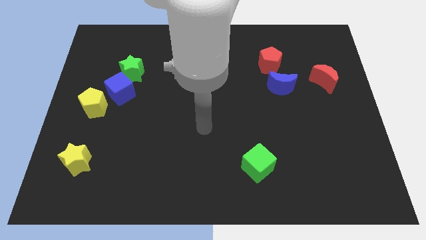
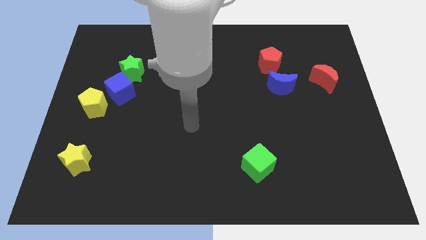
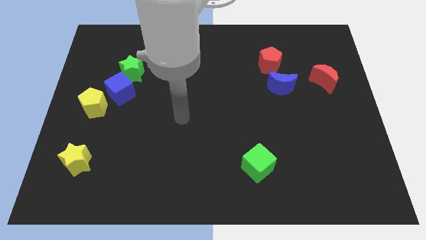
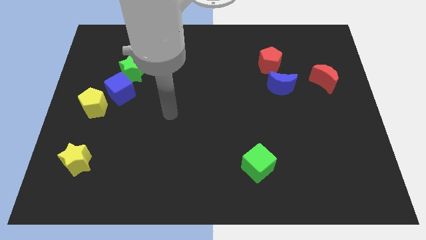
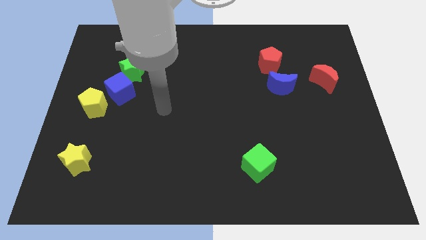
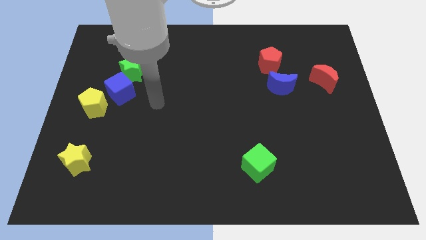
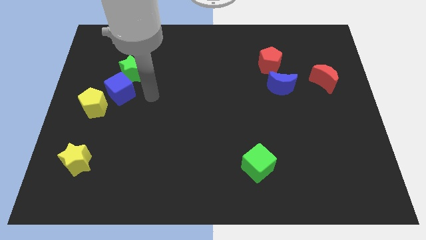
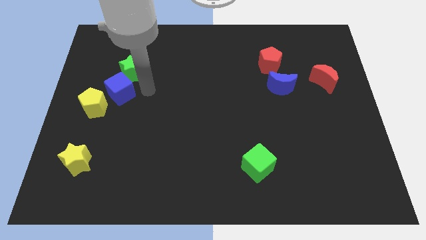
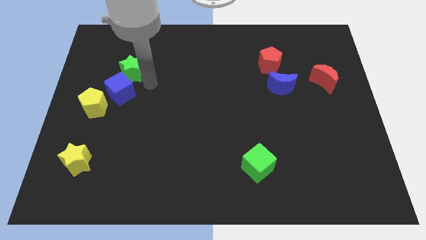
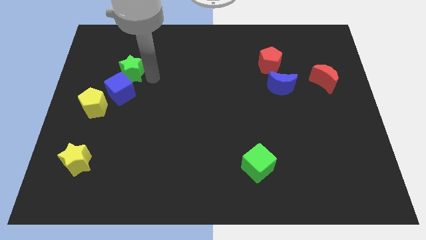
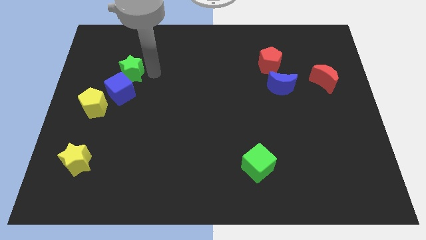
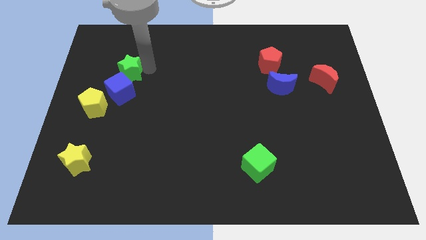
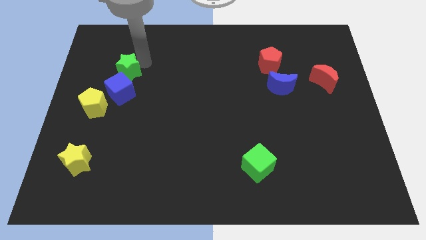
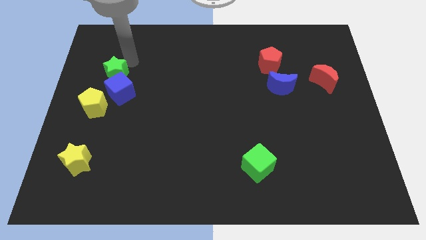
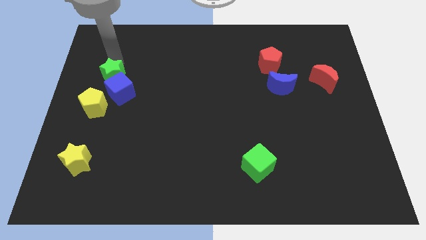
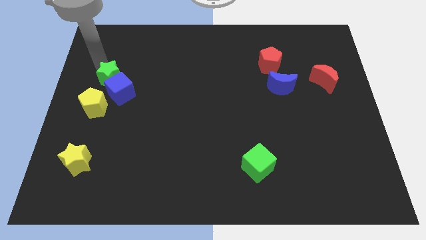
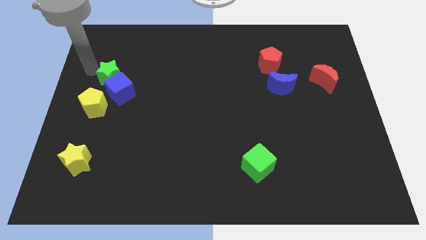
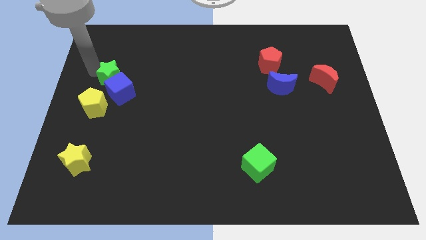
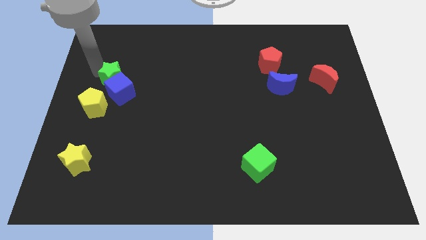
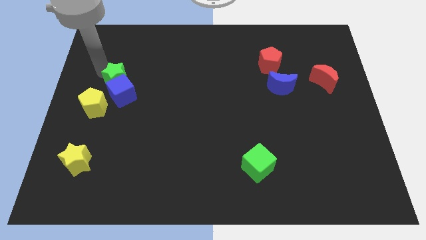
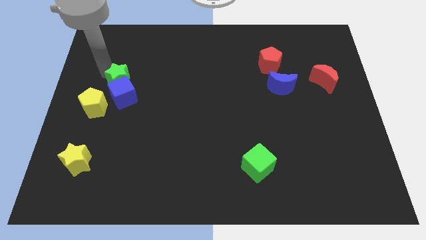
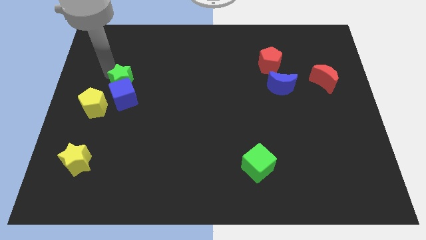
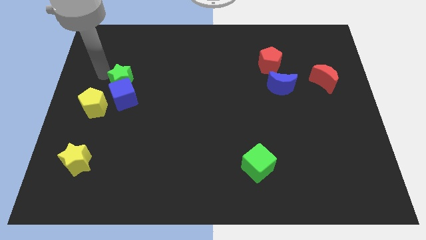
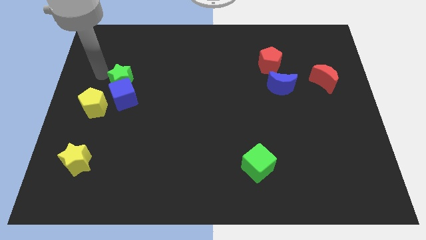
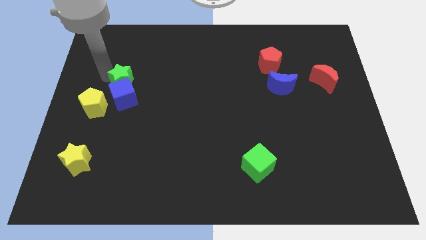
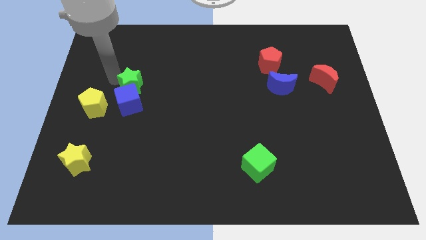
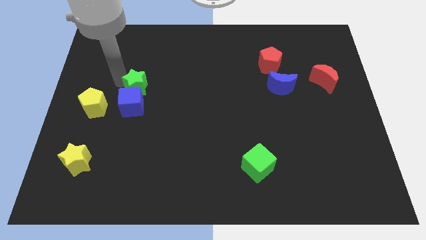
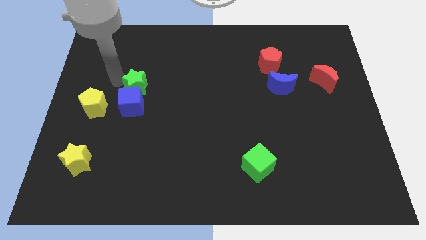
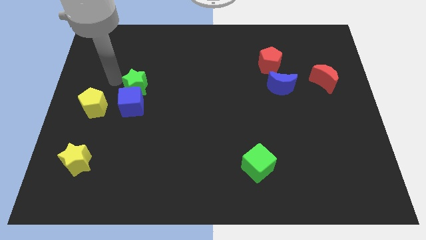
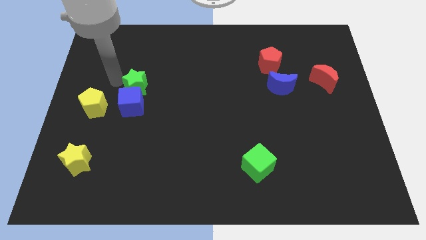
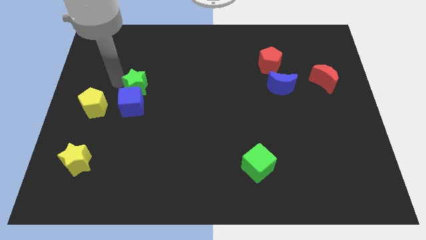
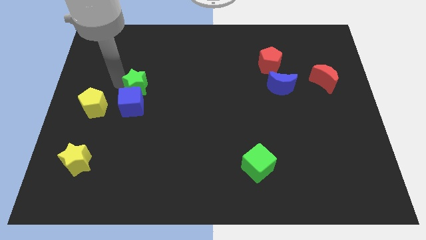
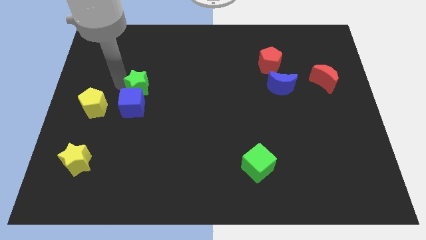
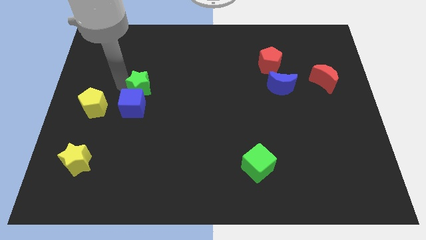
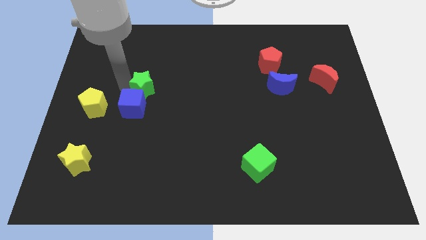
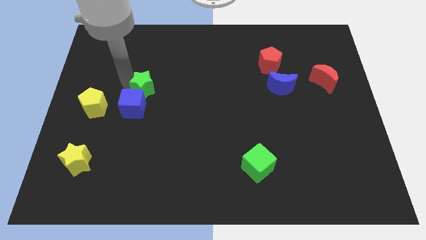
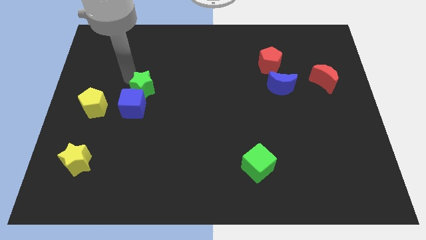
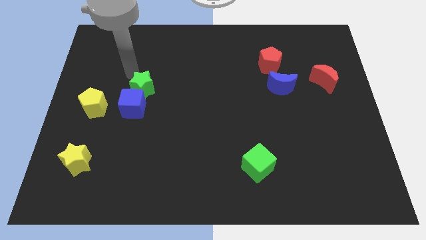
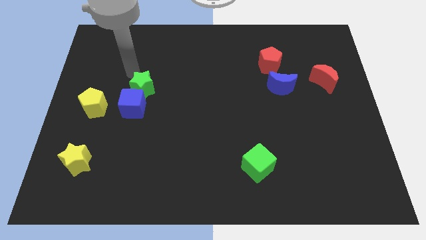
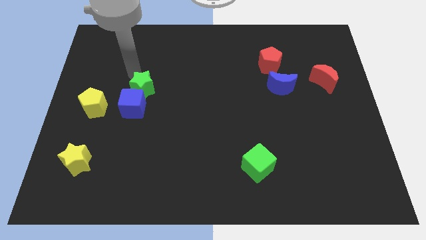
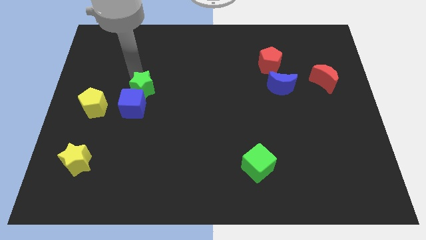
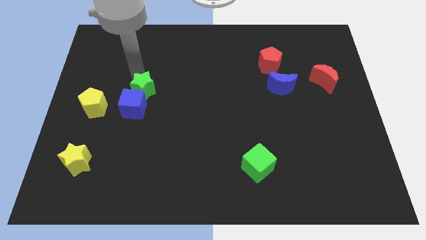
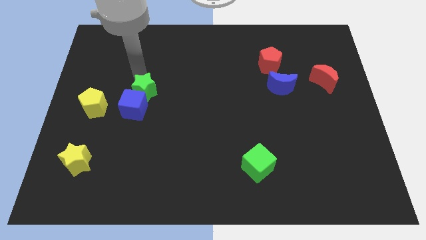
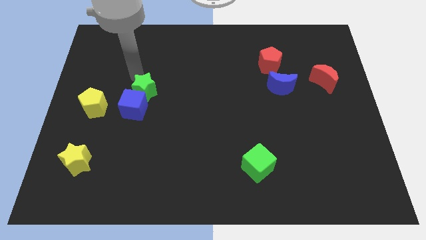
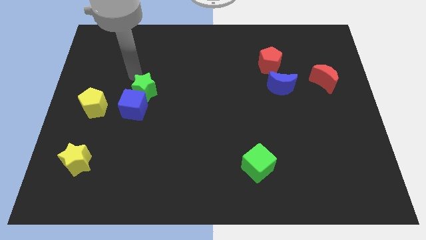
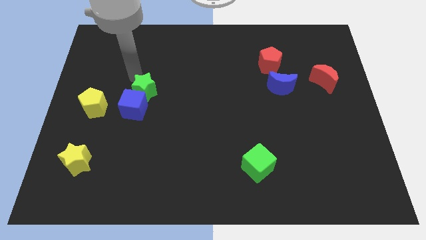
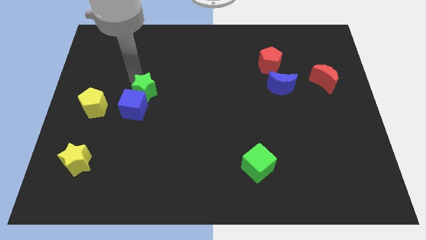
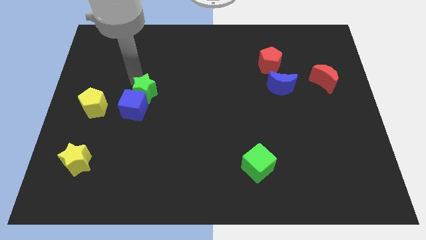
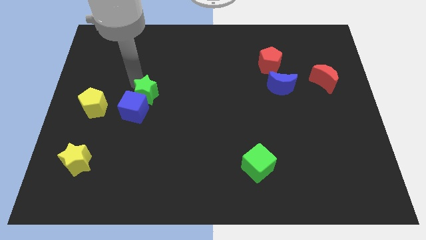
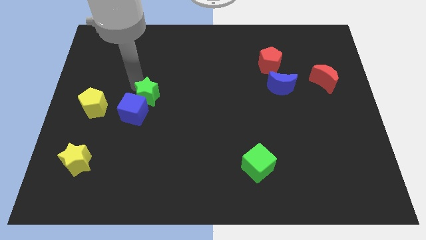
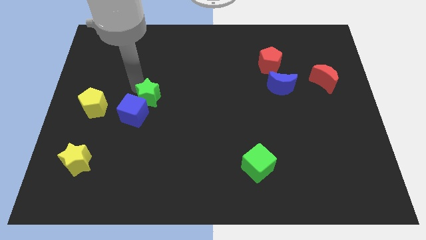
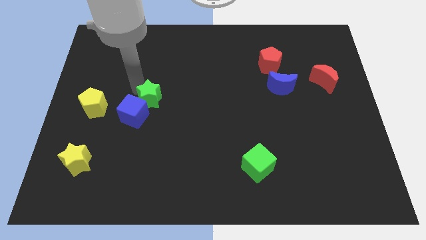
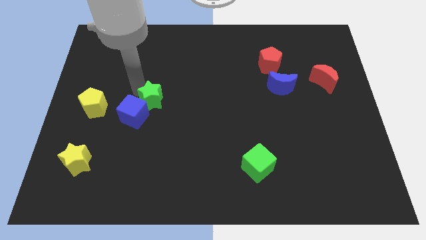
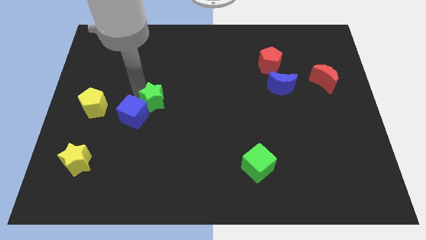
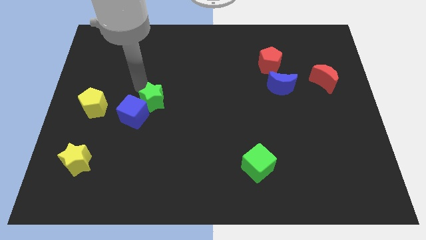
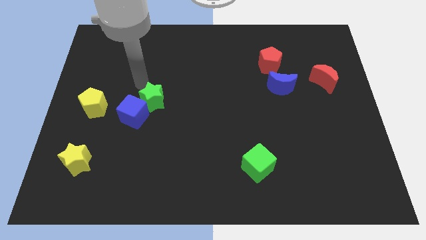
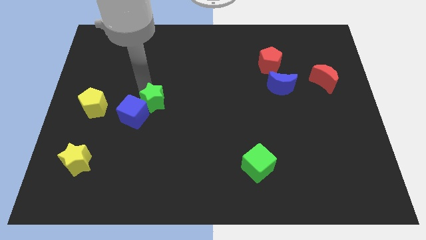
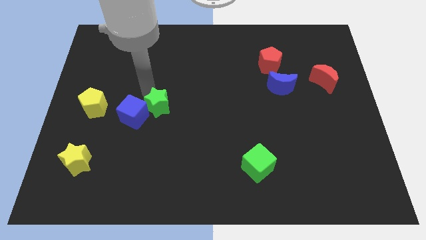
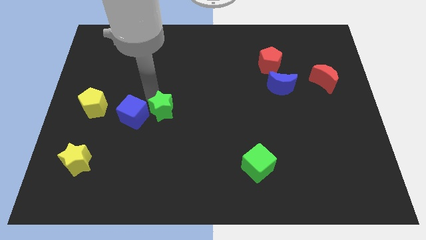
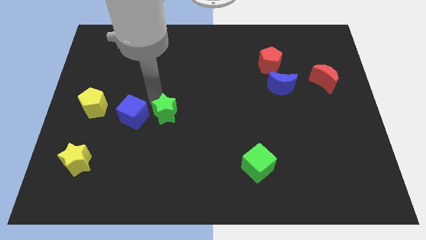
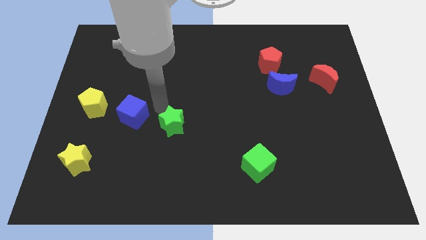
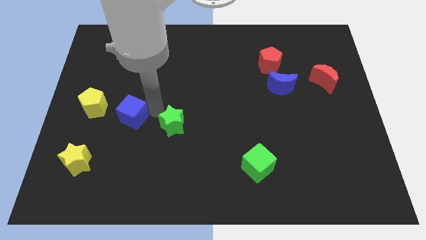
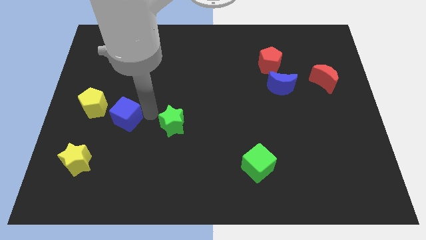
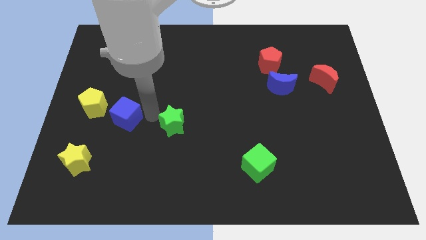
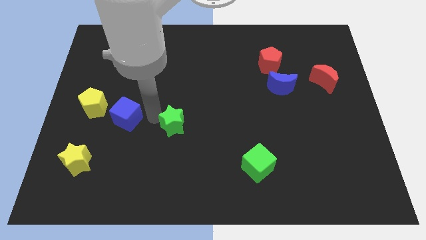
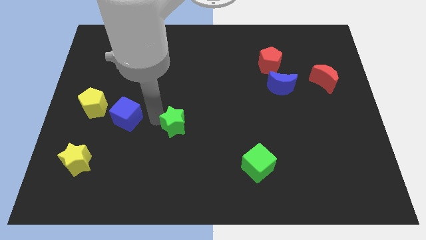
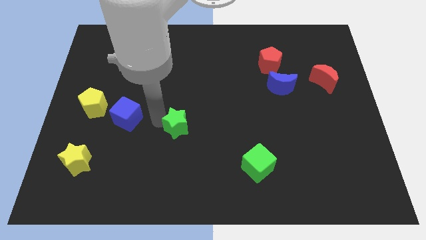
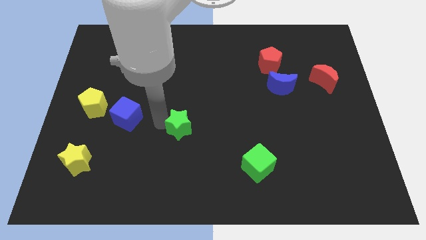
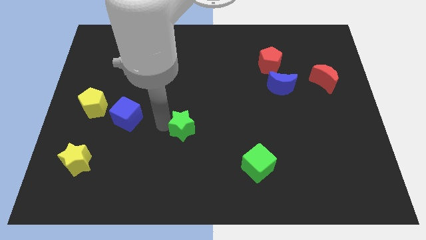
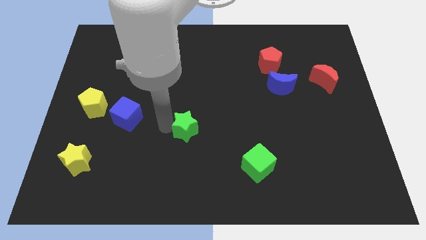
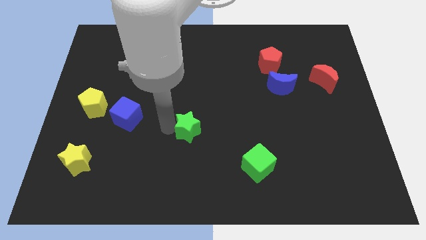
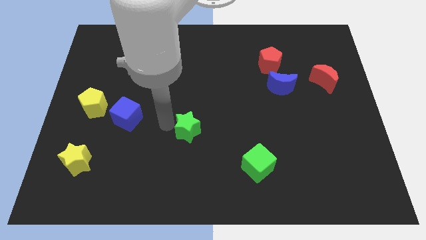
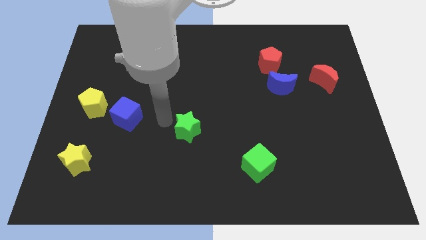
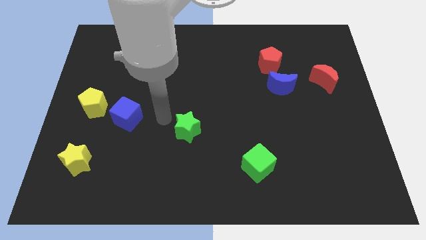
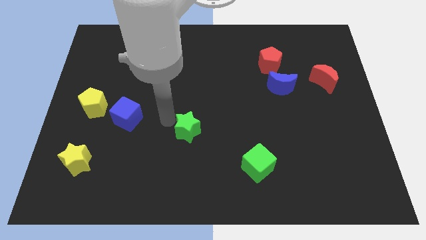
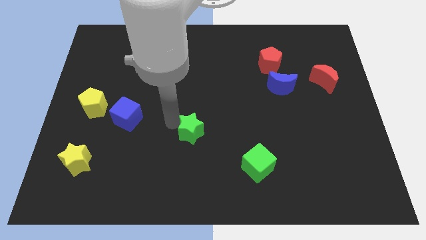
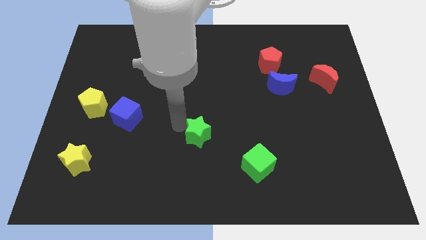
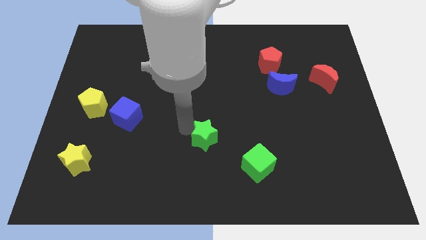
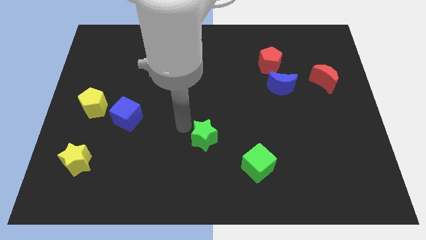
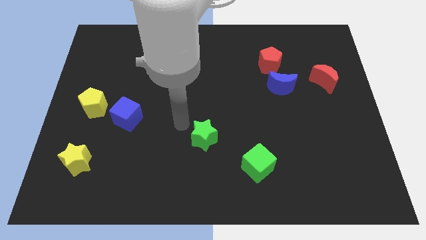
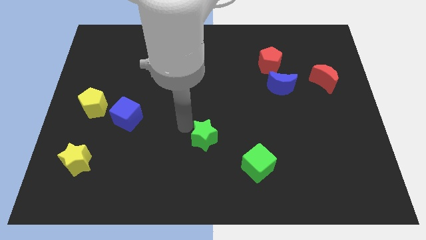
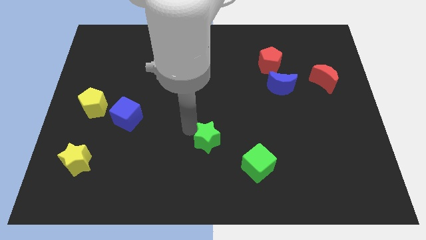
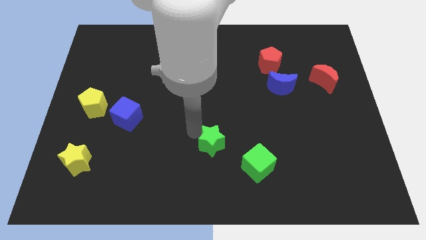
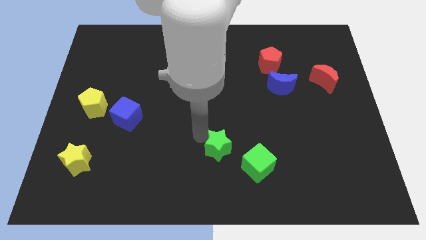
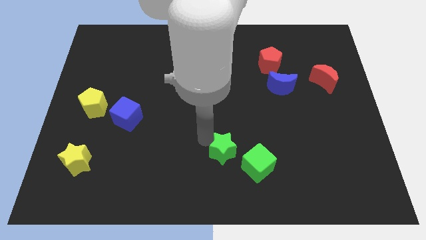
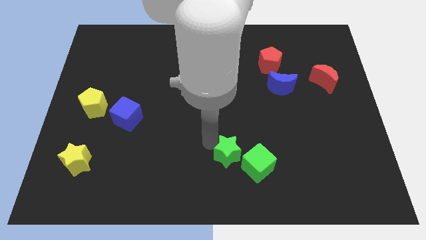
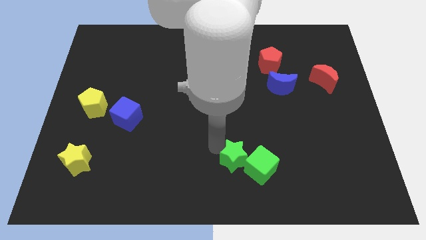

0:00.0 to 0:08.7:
slide the green star towards the green cube
